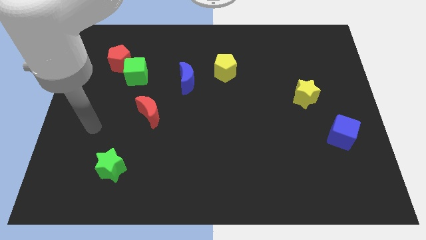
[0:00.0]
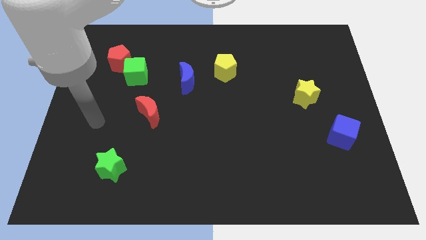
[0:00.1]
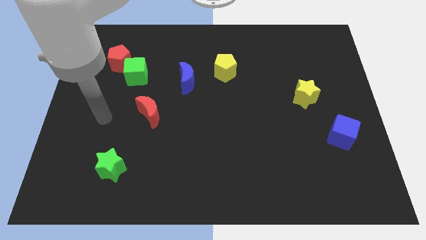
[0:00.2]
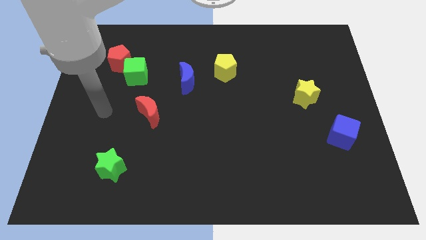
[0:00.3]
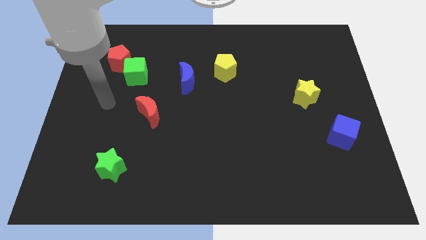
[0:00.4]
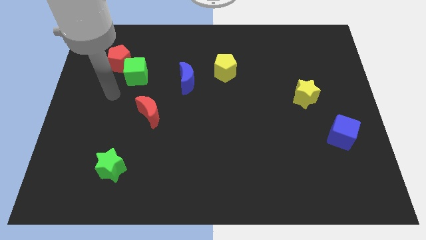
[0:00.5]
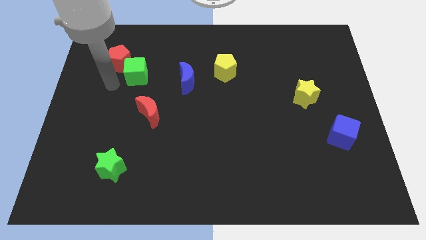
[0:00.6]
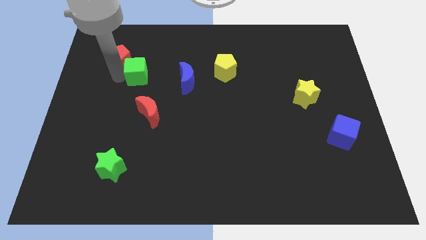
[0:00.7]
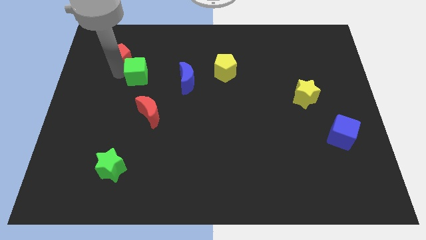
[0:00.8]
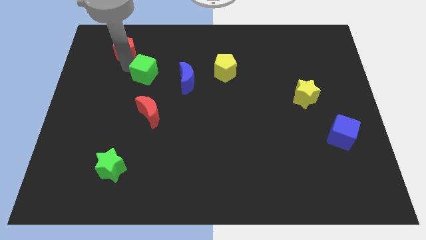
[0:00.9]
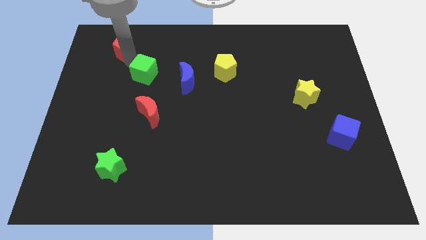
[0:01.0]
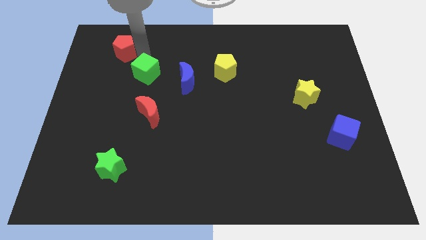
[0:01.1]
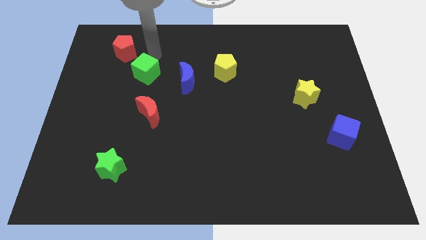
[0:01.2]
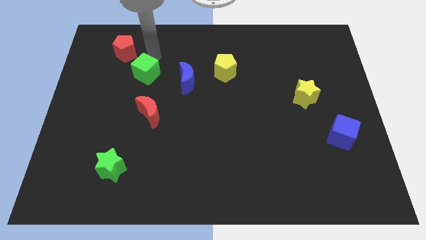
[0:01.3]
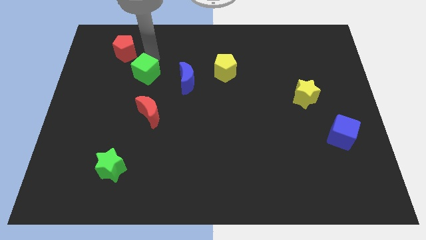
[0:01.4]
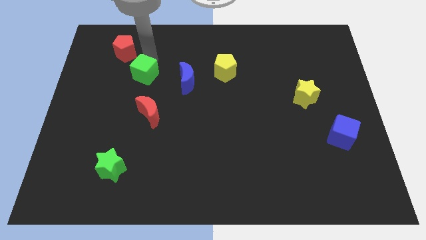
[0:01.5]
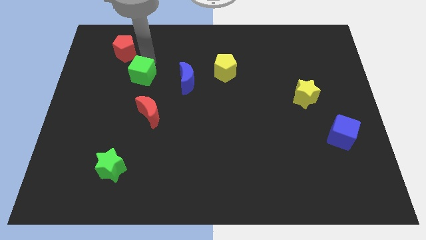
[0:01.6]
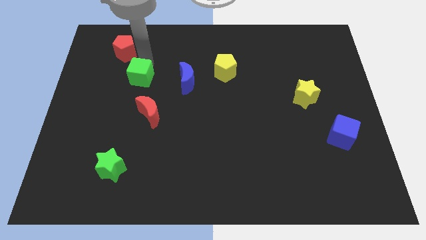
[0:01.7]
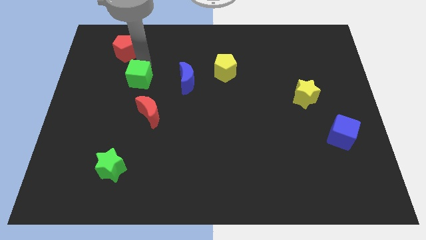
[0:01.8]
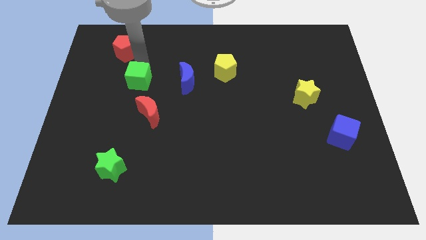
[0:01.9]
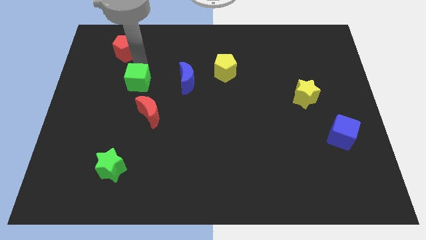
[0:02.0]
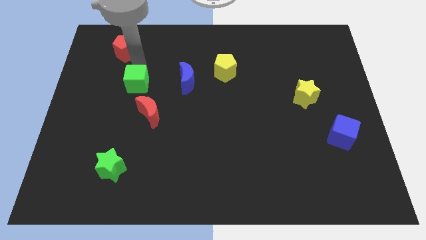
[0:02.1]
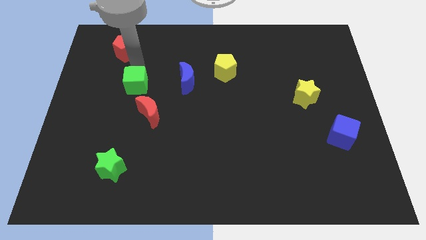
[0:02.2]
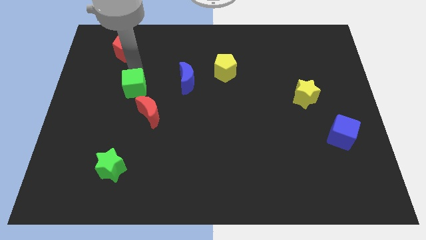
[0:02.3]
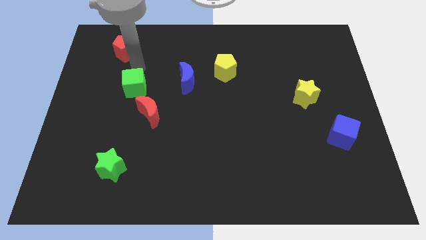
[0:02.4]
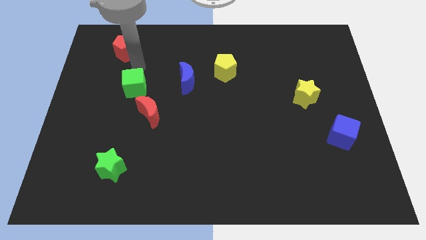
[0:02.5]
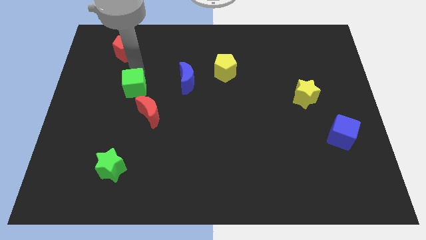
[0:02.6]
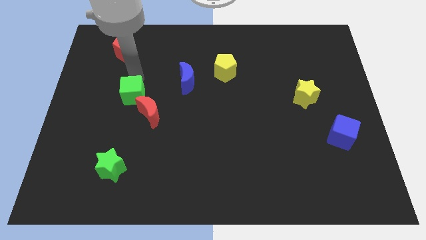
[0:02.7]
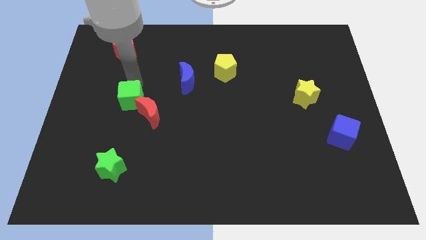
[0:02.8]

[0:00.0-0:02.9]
move the green cube downwards slightly

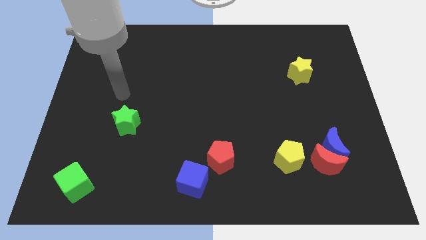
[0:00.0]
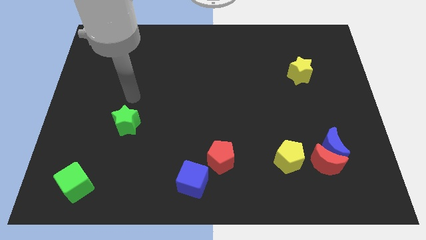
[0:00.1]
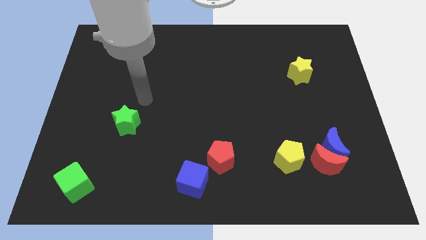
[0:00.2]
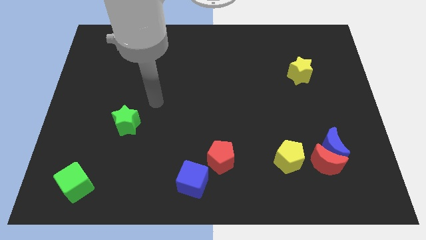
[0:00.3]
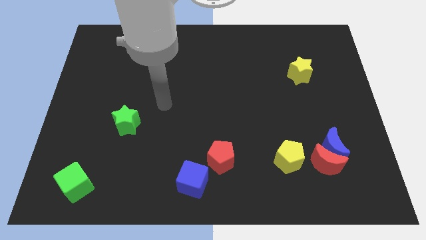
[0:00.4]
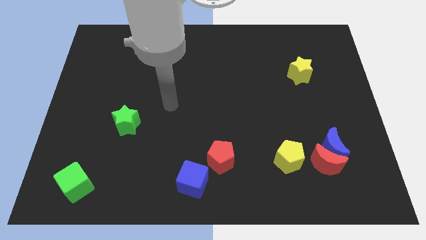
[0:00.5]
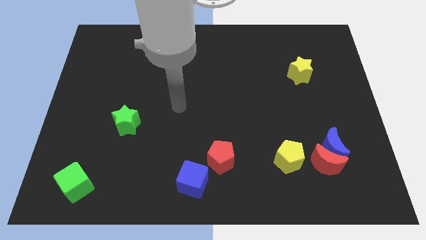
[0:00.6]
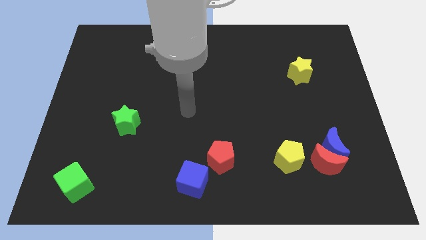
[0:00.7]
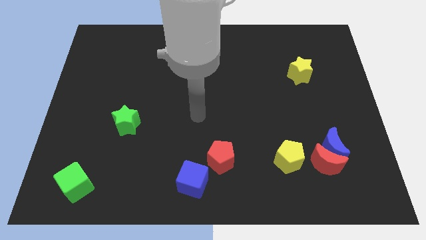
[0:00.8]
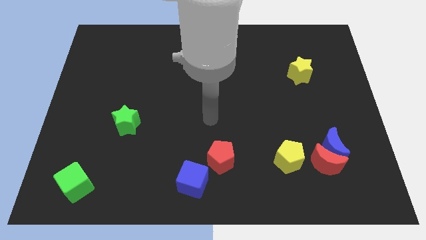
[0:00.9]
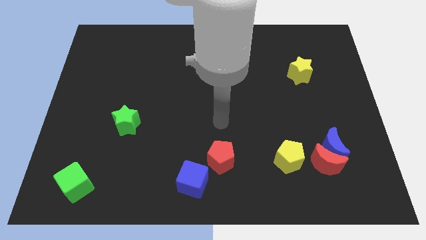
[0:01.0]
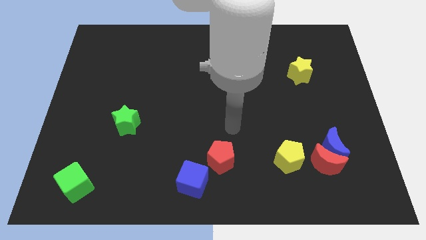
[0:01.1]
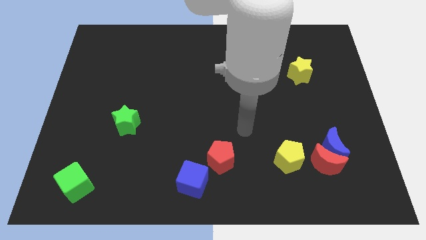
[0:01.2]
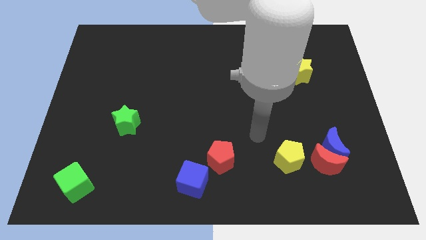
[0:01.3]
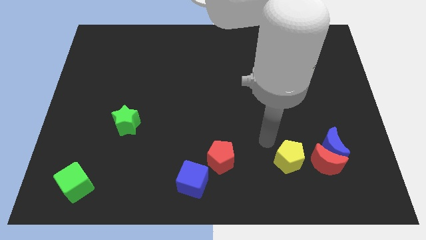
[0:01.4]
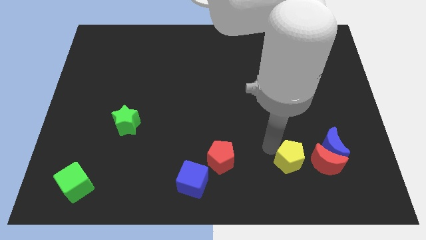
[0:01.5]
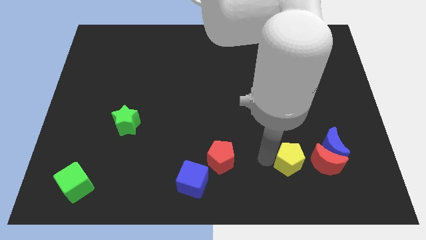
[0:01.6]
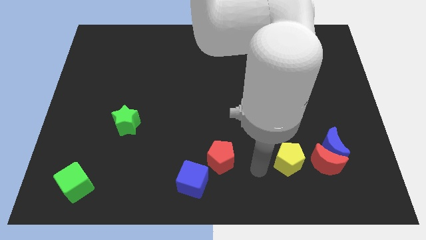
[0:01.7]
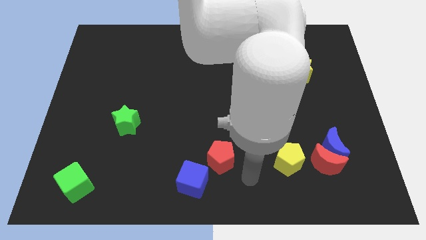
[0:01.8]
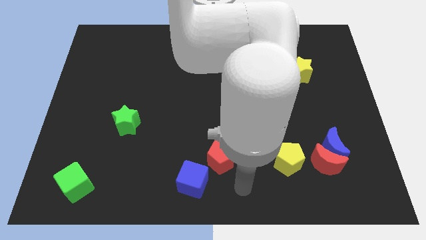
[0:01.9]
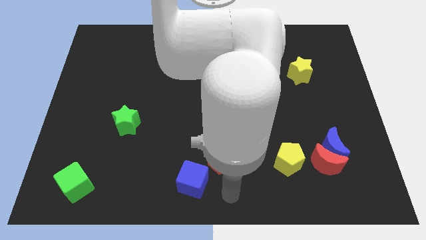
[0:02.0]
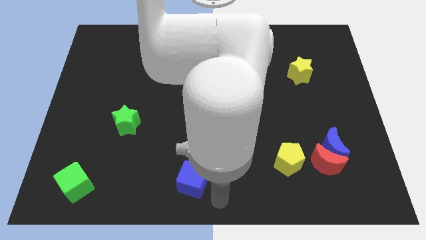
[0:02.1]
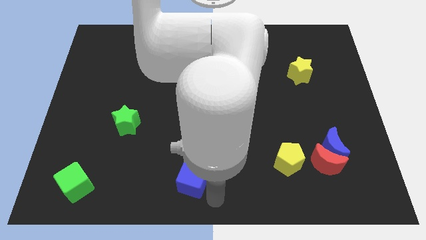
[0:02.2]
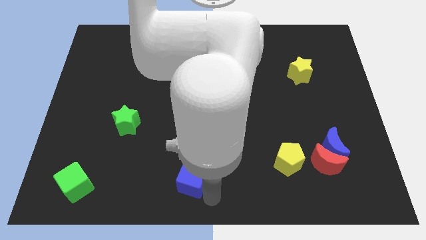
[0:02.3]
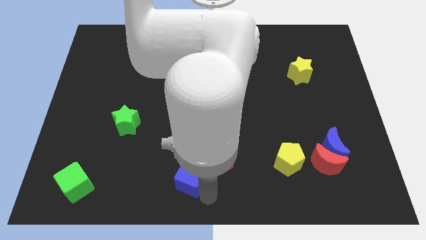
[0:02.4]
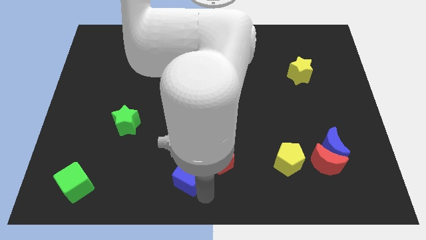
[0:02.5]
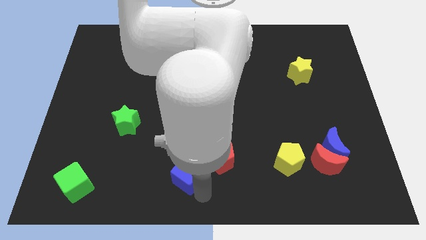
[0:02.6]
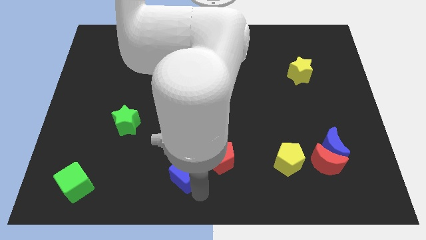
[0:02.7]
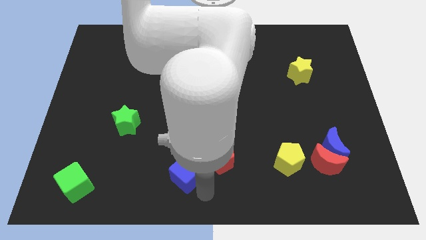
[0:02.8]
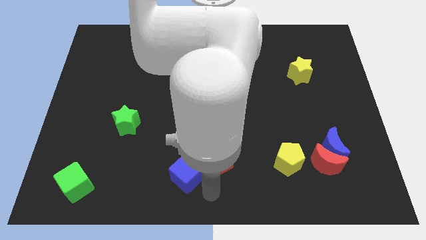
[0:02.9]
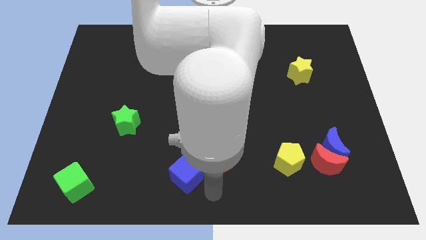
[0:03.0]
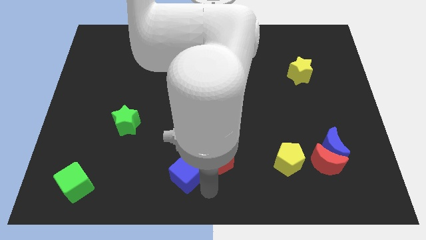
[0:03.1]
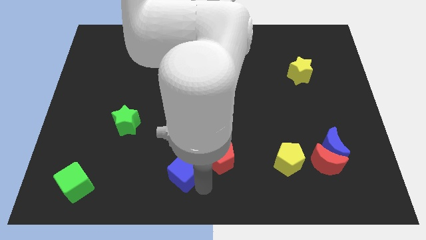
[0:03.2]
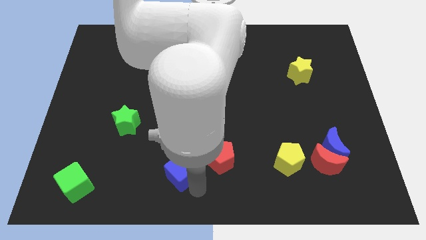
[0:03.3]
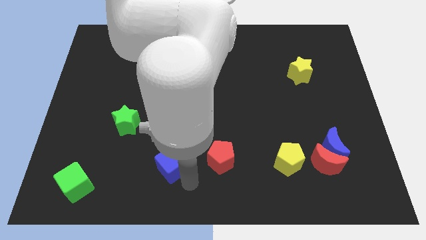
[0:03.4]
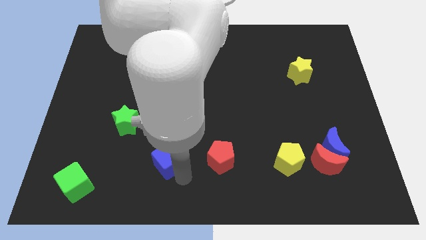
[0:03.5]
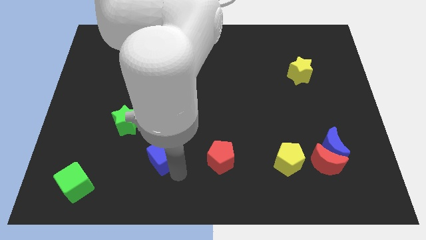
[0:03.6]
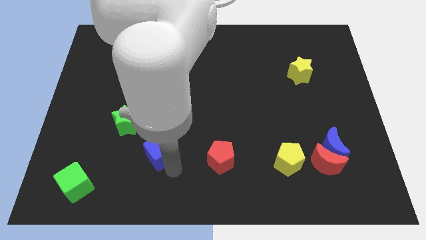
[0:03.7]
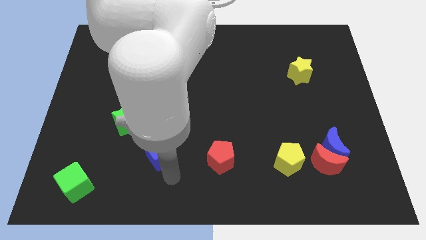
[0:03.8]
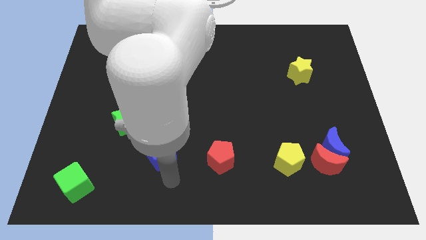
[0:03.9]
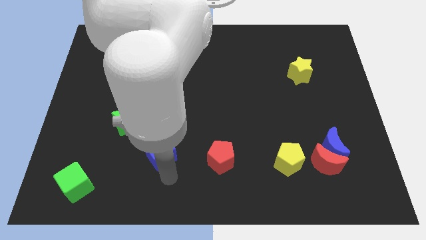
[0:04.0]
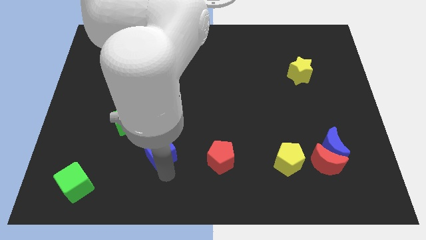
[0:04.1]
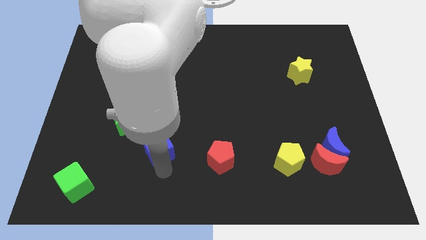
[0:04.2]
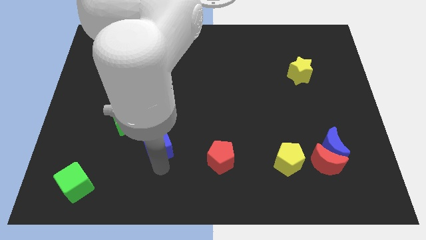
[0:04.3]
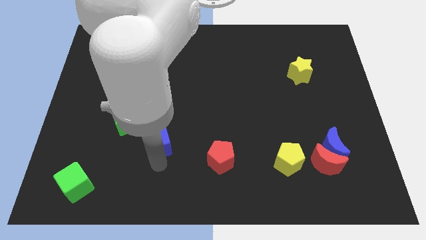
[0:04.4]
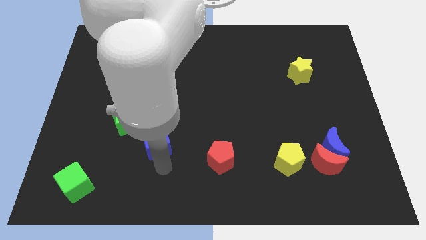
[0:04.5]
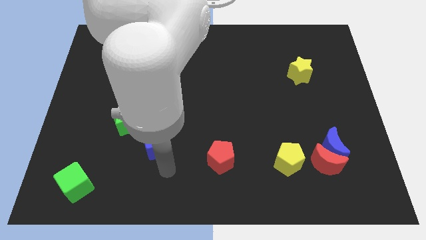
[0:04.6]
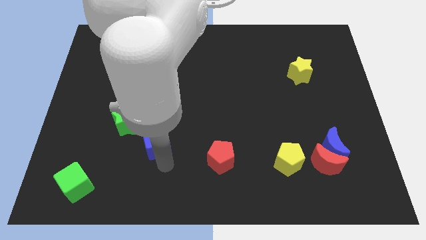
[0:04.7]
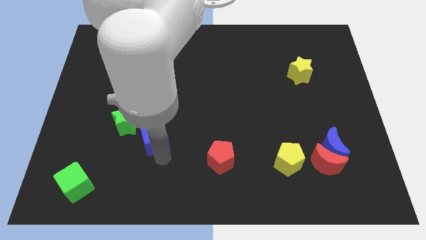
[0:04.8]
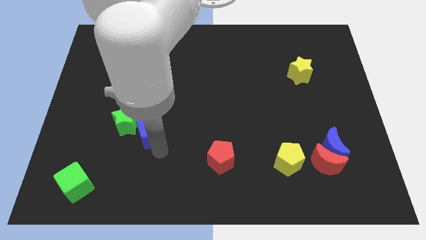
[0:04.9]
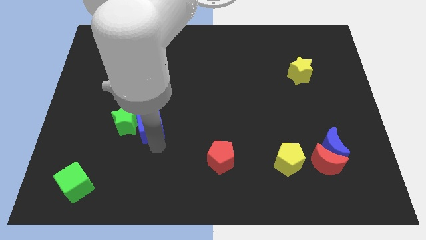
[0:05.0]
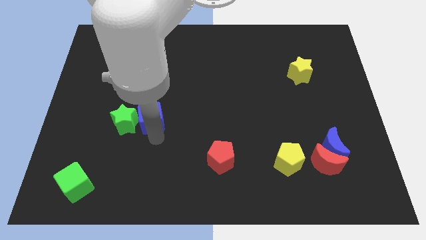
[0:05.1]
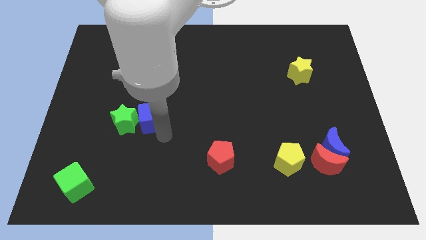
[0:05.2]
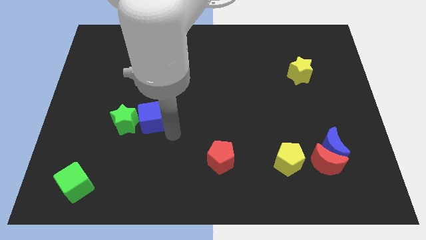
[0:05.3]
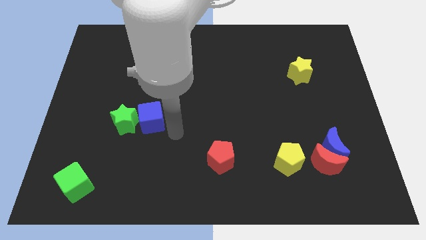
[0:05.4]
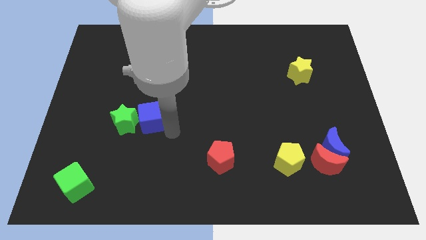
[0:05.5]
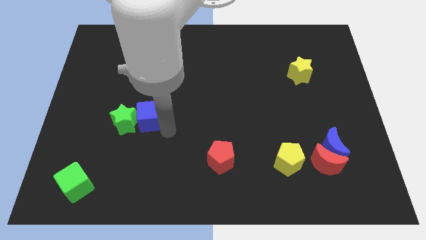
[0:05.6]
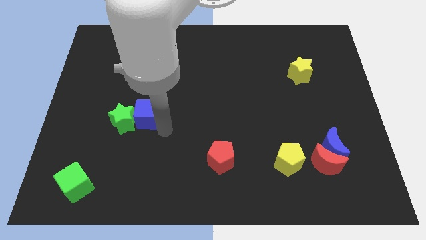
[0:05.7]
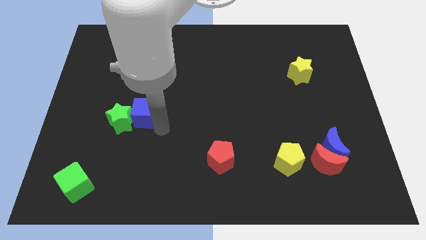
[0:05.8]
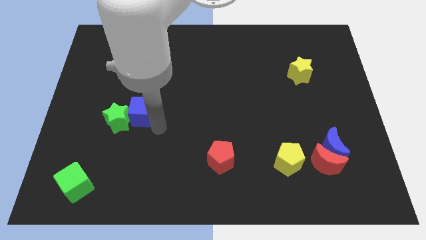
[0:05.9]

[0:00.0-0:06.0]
move the blue cube upwards and to the left diagonally
